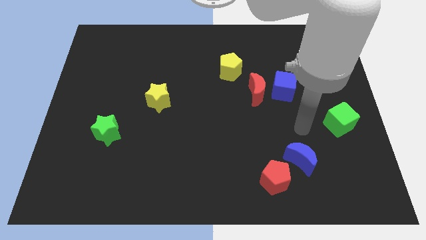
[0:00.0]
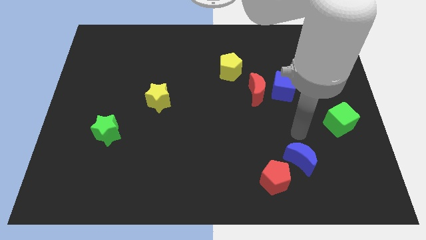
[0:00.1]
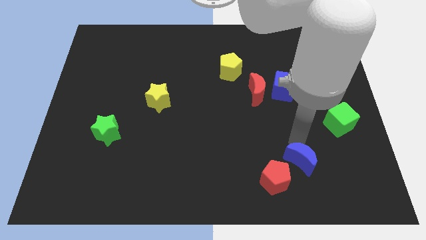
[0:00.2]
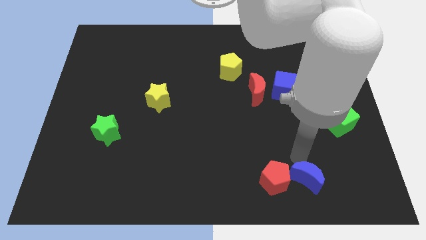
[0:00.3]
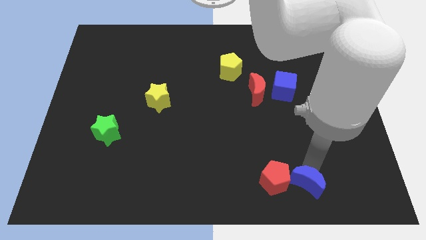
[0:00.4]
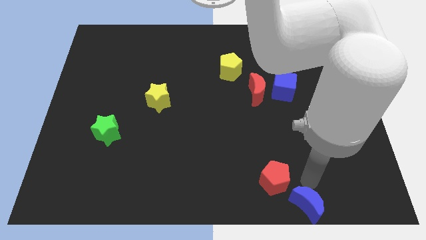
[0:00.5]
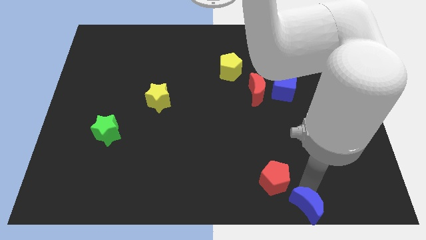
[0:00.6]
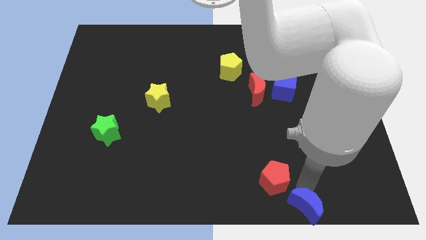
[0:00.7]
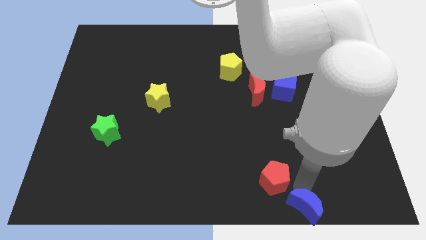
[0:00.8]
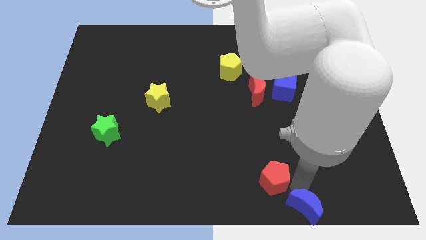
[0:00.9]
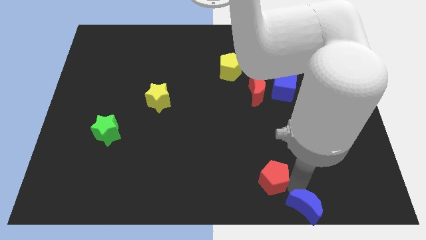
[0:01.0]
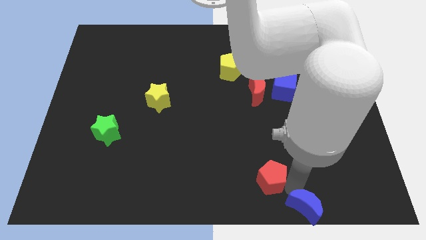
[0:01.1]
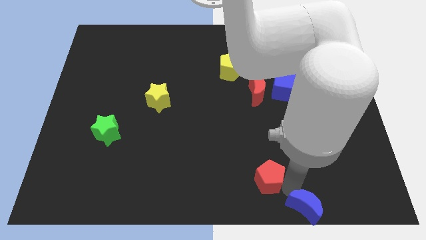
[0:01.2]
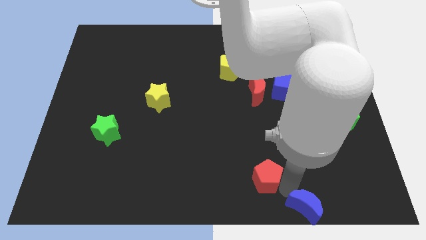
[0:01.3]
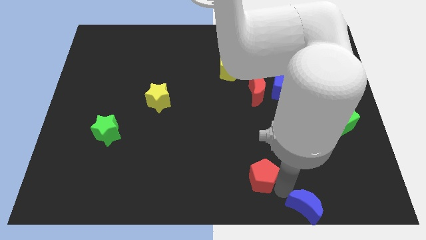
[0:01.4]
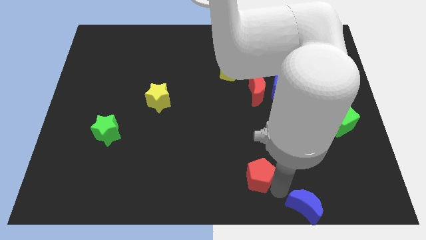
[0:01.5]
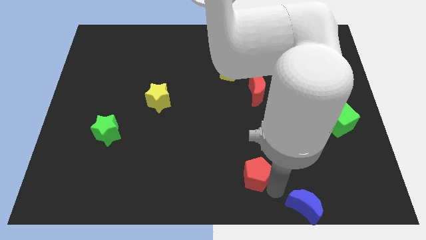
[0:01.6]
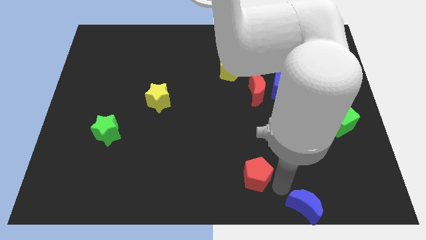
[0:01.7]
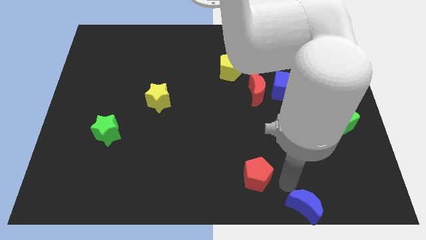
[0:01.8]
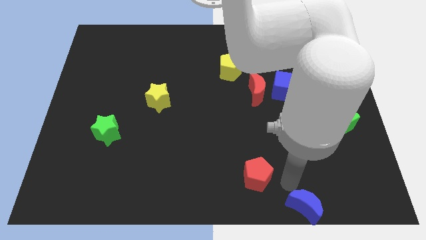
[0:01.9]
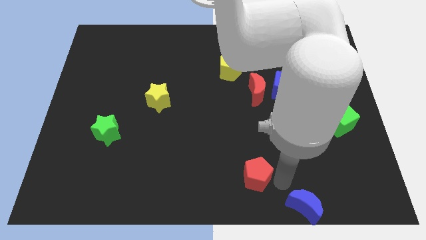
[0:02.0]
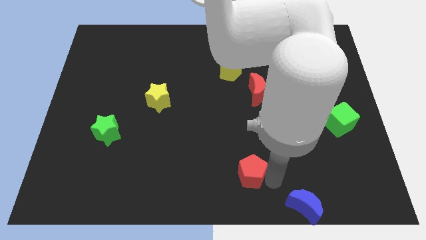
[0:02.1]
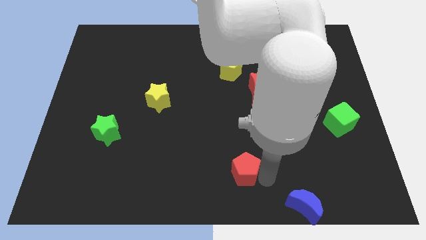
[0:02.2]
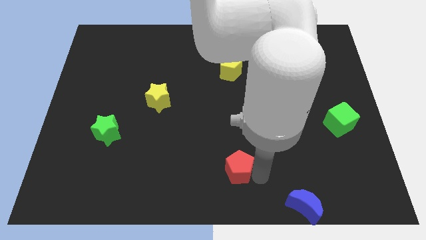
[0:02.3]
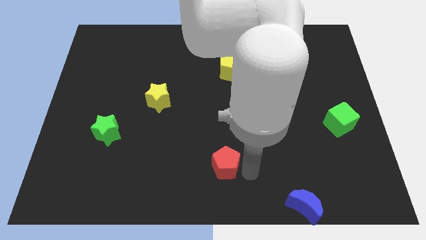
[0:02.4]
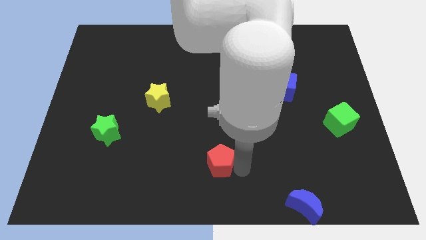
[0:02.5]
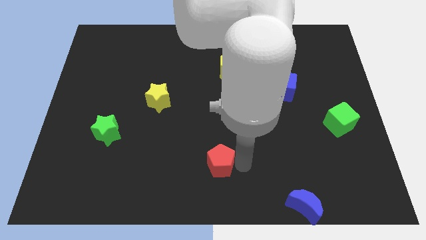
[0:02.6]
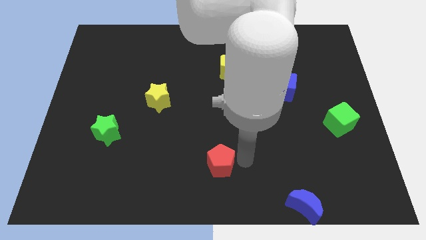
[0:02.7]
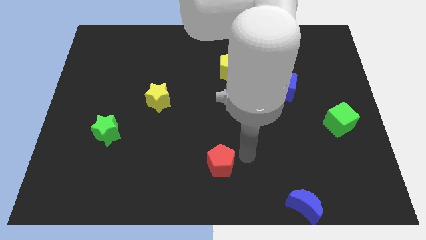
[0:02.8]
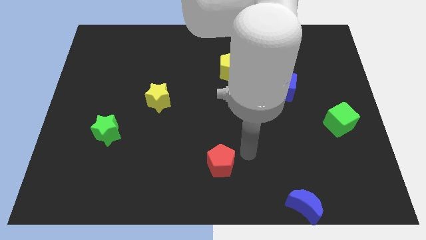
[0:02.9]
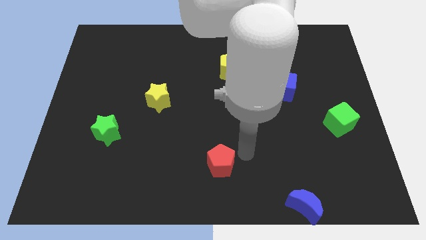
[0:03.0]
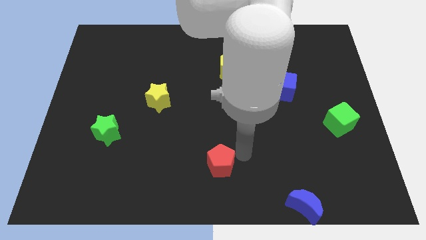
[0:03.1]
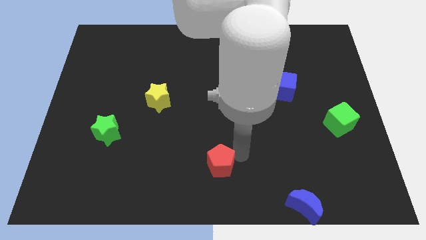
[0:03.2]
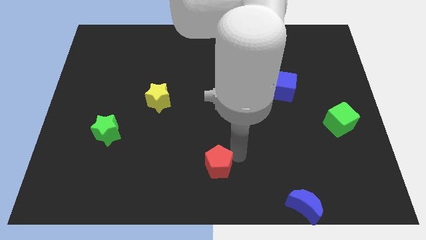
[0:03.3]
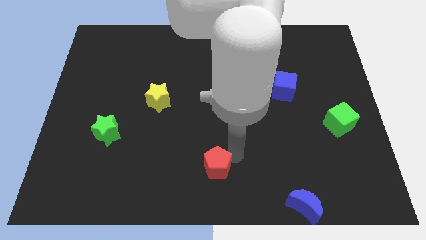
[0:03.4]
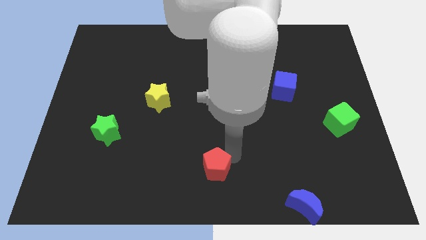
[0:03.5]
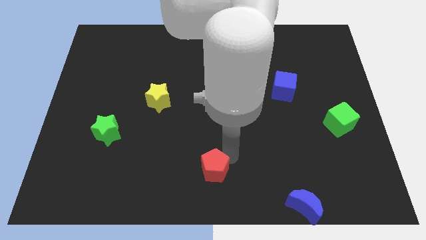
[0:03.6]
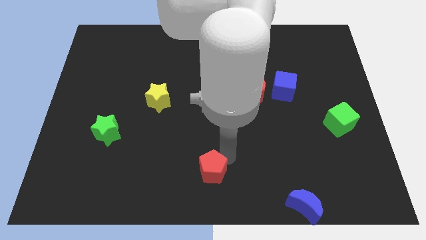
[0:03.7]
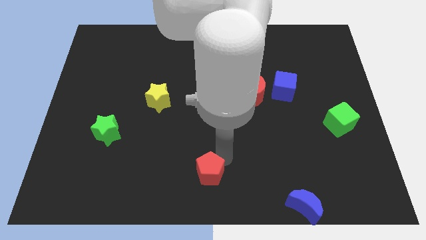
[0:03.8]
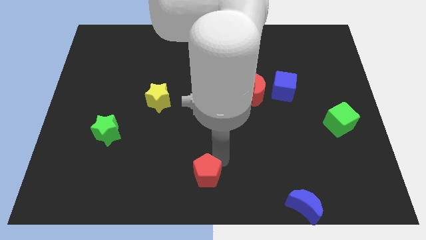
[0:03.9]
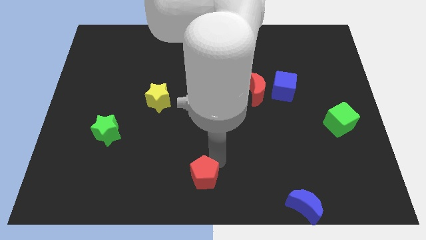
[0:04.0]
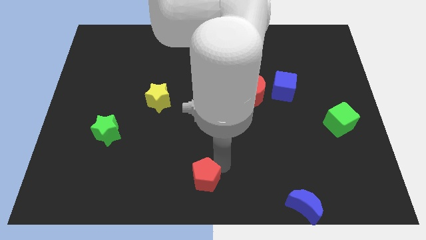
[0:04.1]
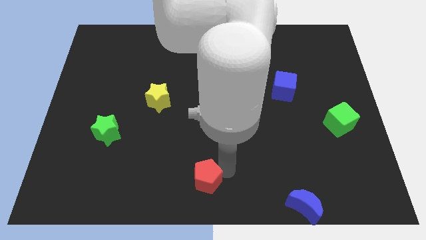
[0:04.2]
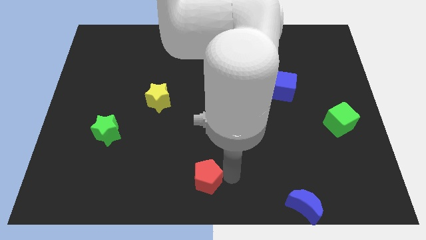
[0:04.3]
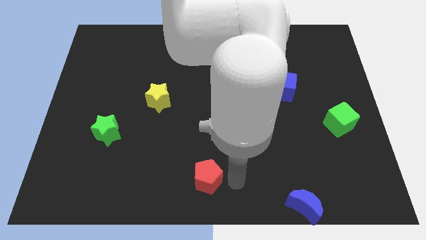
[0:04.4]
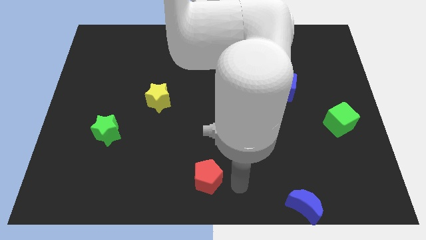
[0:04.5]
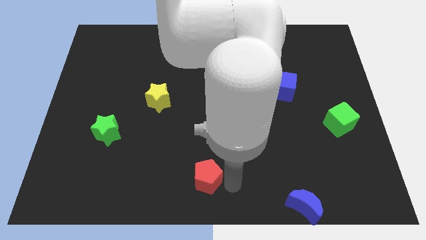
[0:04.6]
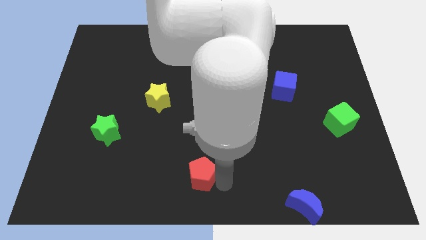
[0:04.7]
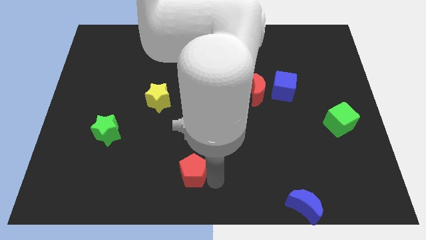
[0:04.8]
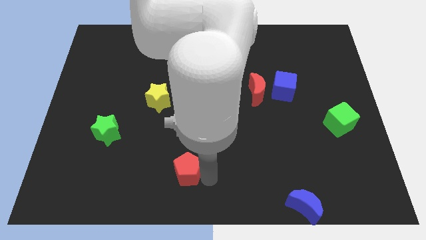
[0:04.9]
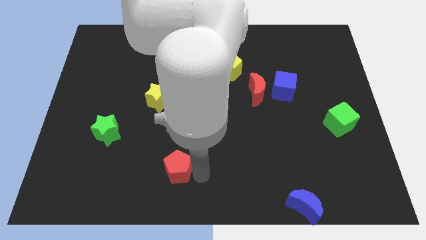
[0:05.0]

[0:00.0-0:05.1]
move the red pentagon to the left

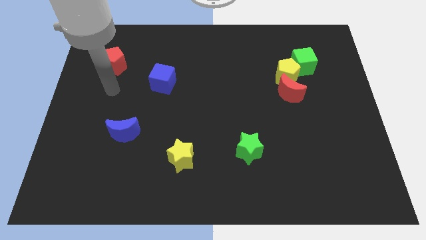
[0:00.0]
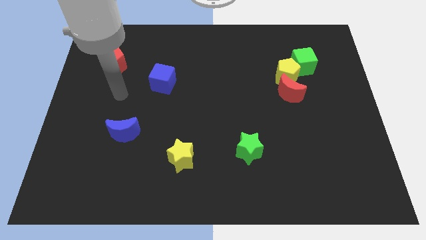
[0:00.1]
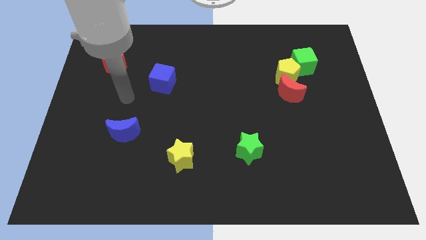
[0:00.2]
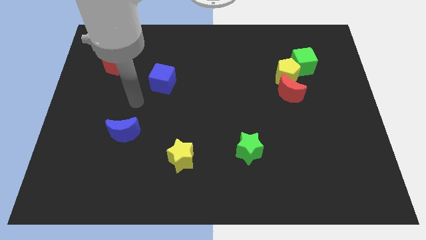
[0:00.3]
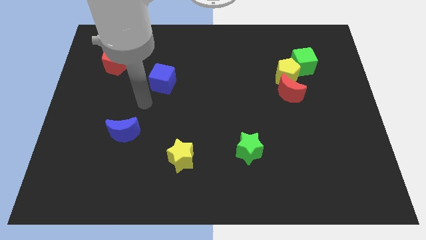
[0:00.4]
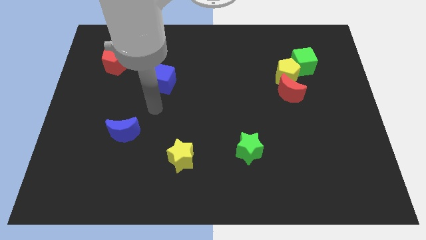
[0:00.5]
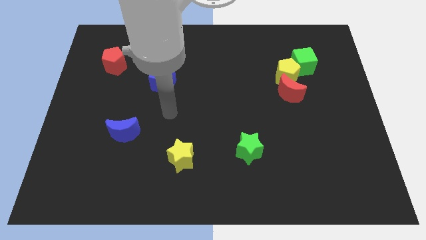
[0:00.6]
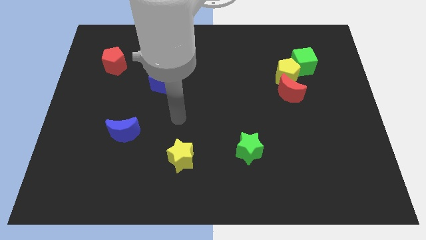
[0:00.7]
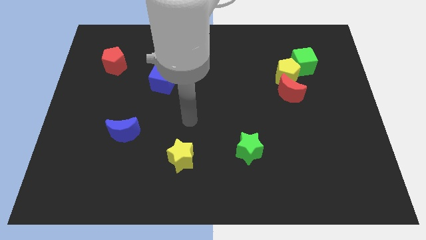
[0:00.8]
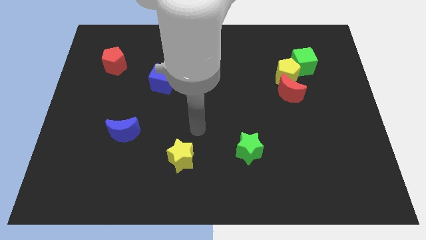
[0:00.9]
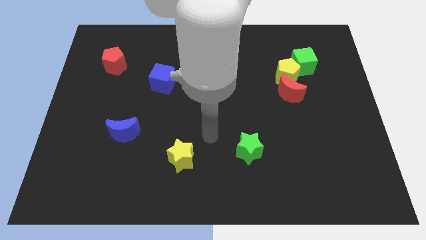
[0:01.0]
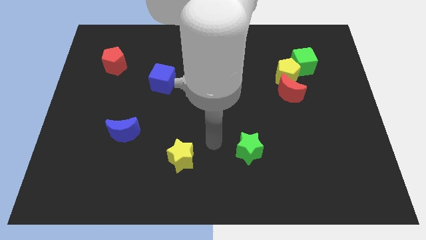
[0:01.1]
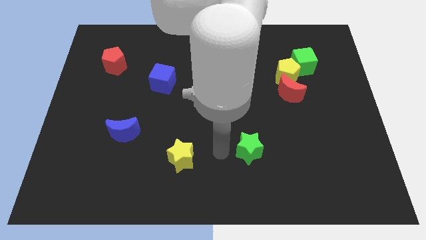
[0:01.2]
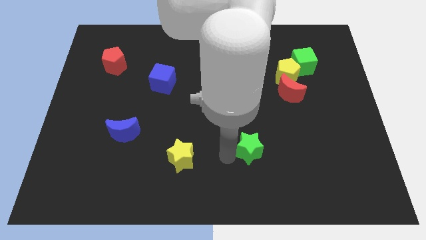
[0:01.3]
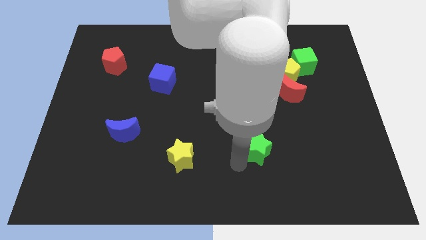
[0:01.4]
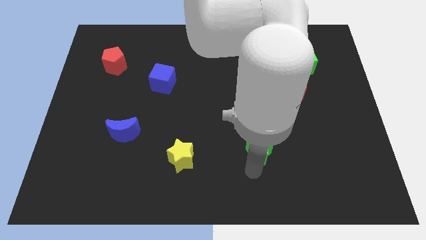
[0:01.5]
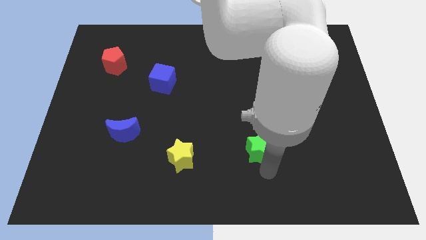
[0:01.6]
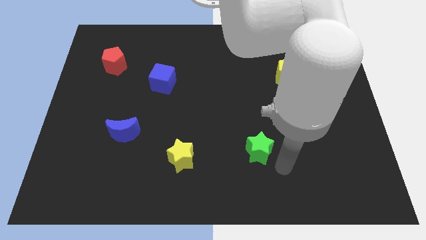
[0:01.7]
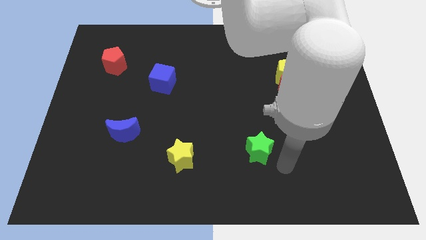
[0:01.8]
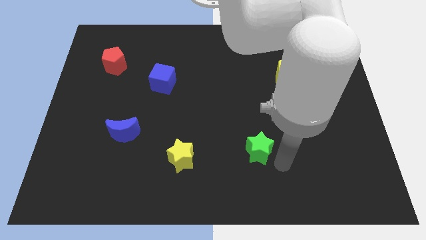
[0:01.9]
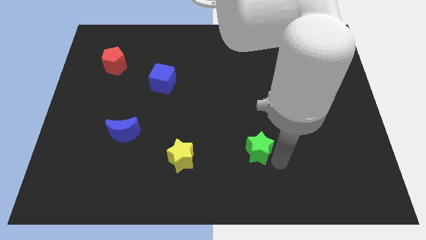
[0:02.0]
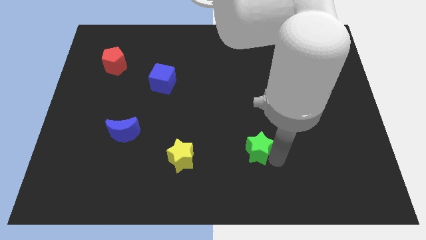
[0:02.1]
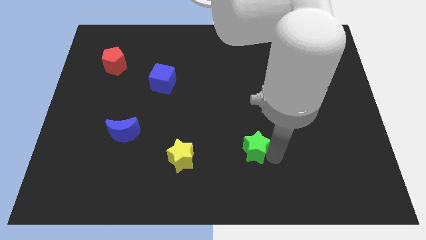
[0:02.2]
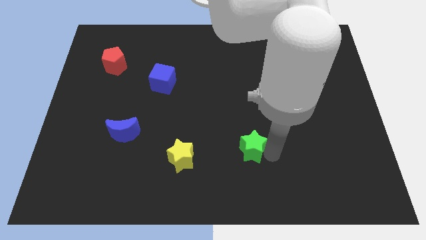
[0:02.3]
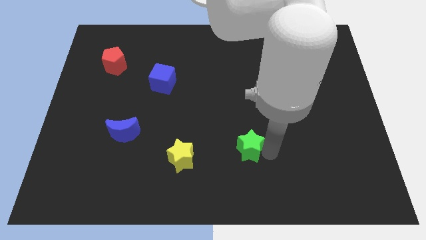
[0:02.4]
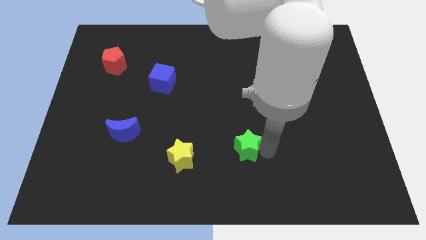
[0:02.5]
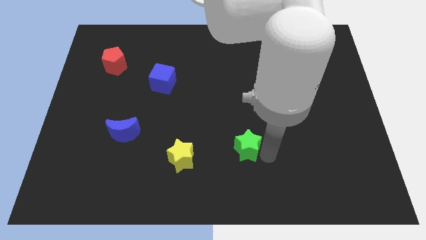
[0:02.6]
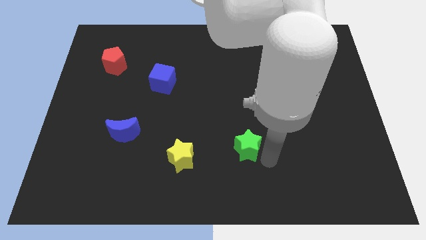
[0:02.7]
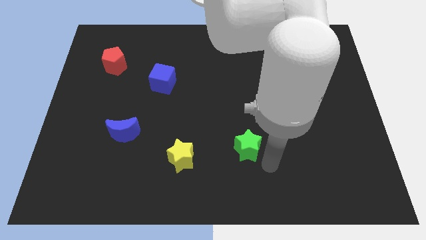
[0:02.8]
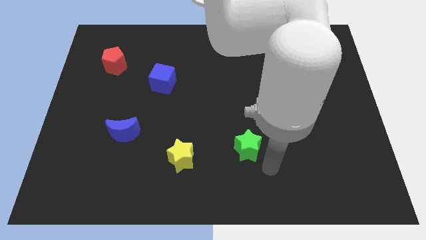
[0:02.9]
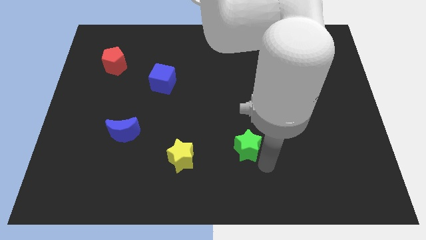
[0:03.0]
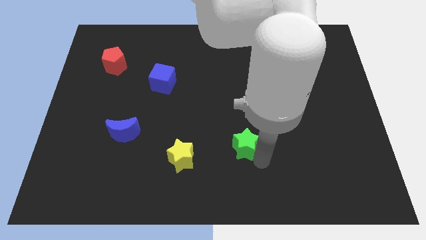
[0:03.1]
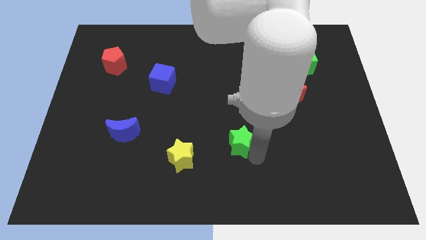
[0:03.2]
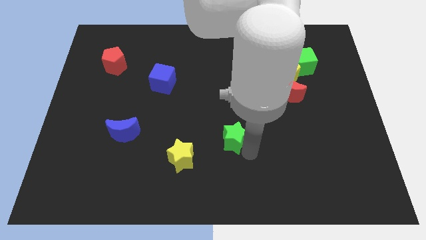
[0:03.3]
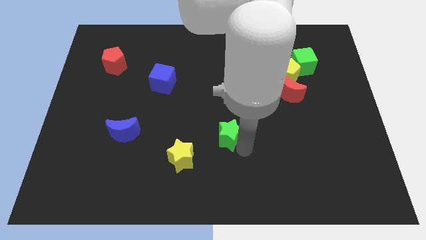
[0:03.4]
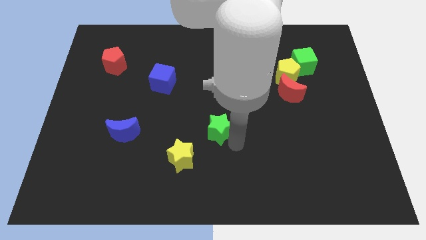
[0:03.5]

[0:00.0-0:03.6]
slightly move the green star up and then left
